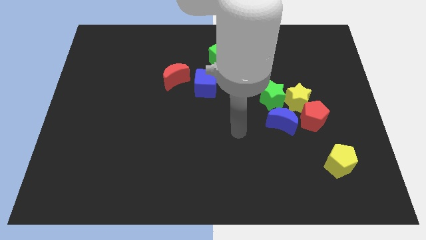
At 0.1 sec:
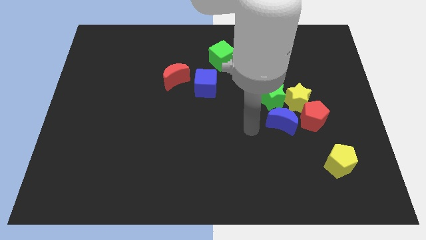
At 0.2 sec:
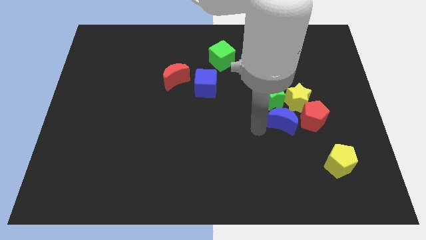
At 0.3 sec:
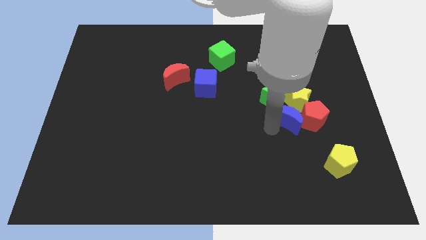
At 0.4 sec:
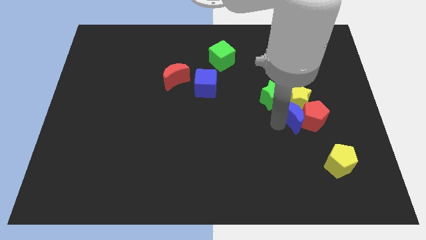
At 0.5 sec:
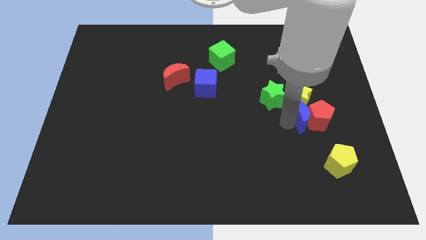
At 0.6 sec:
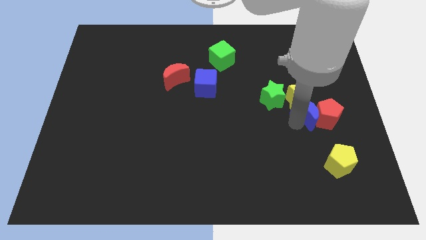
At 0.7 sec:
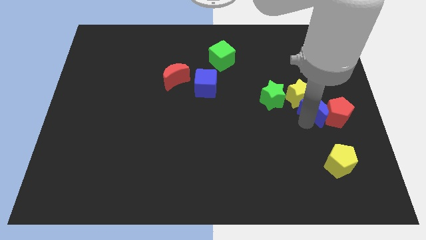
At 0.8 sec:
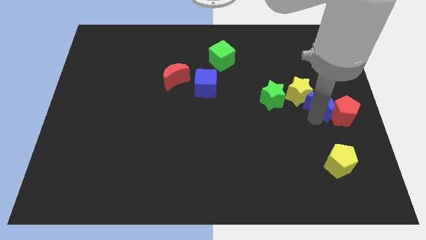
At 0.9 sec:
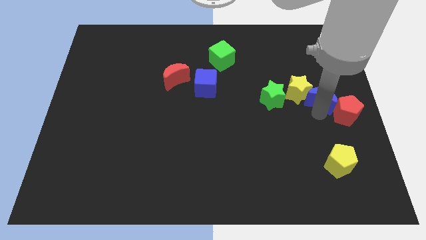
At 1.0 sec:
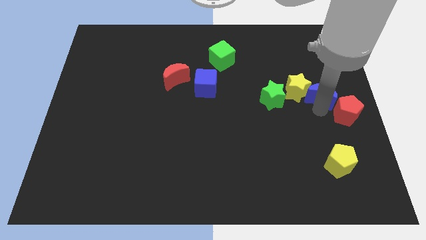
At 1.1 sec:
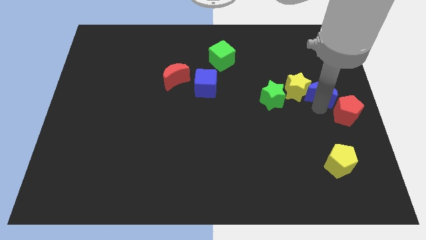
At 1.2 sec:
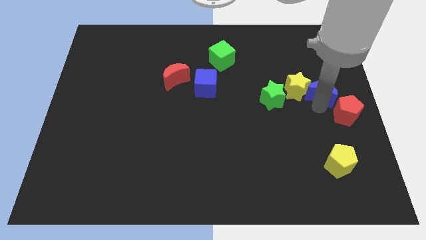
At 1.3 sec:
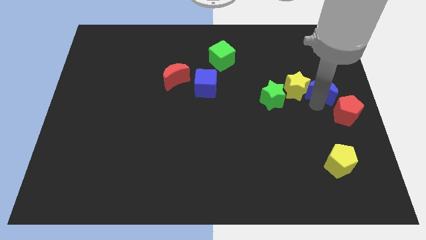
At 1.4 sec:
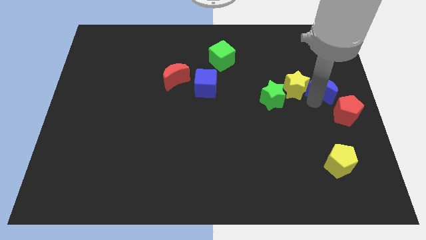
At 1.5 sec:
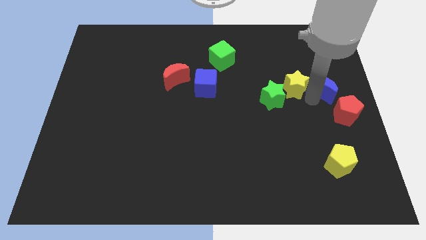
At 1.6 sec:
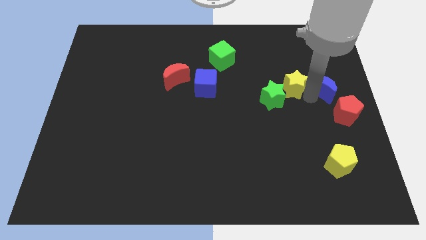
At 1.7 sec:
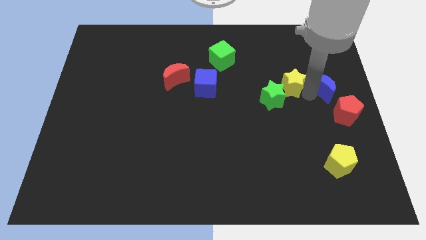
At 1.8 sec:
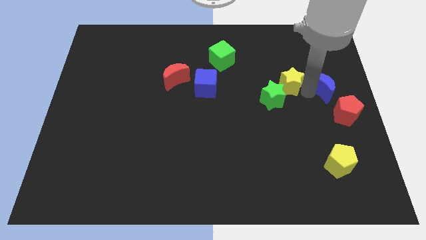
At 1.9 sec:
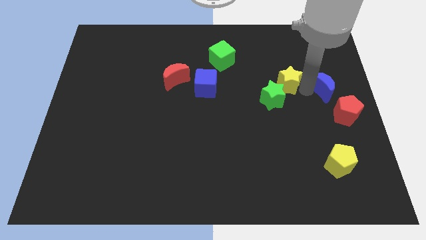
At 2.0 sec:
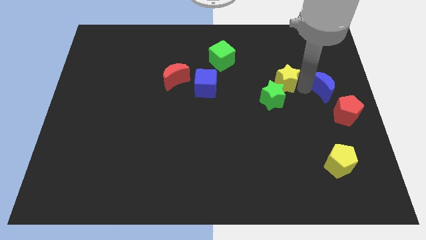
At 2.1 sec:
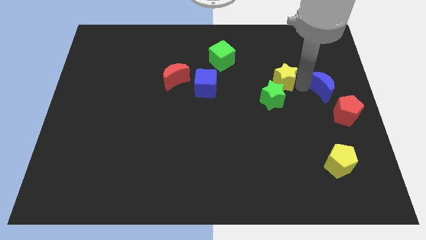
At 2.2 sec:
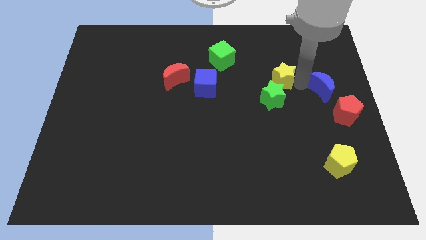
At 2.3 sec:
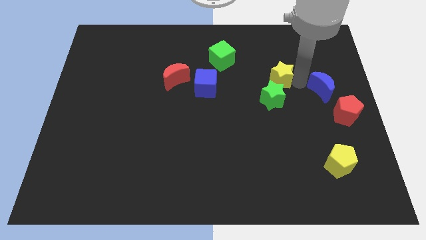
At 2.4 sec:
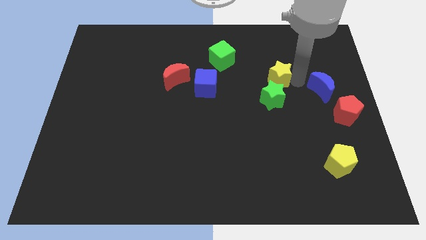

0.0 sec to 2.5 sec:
move the yellow star away from the clump

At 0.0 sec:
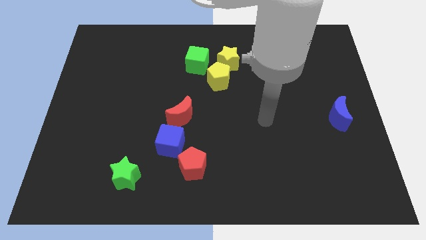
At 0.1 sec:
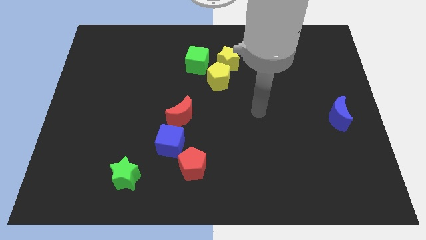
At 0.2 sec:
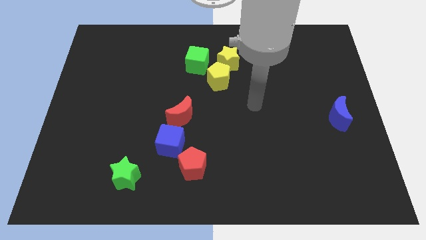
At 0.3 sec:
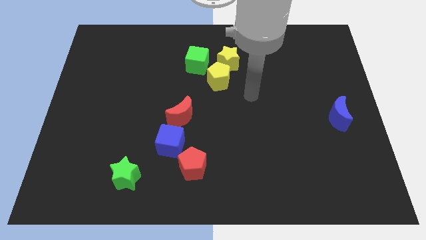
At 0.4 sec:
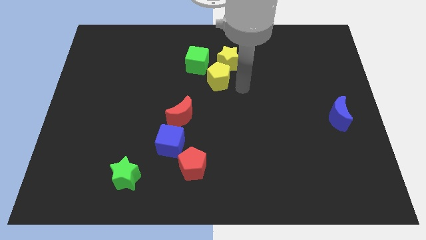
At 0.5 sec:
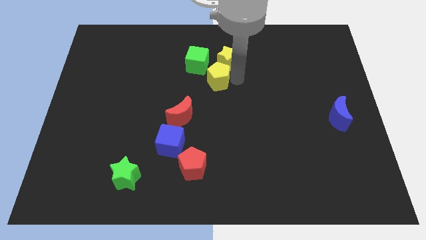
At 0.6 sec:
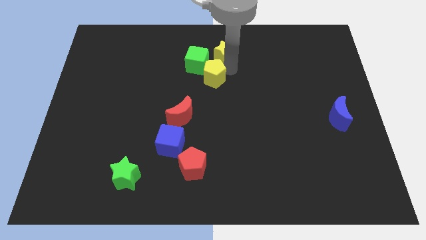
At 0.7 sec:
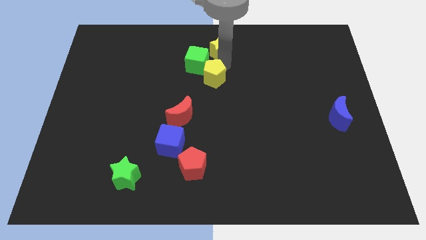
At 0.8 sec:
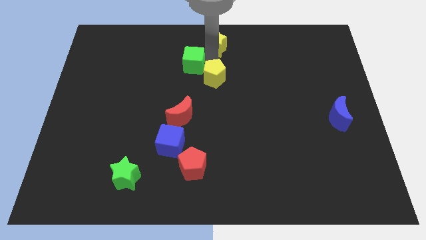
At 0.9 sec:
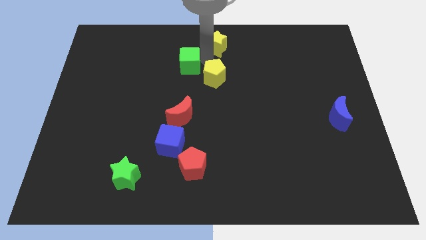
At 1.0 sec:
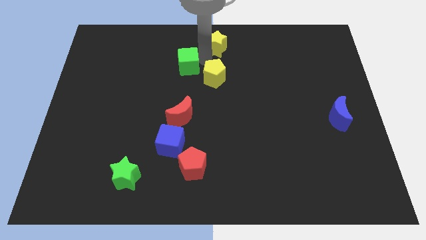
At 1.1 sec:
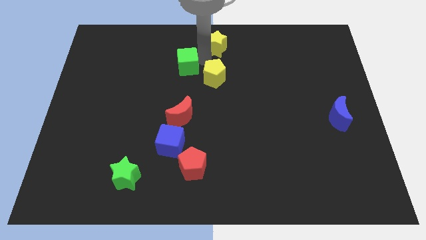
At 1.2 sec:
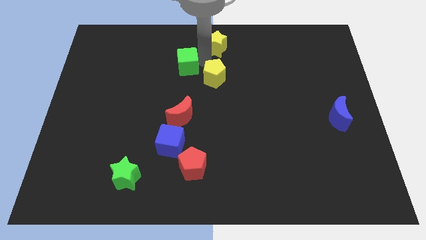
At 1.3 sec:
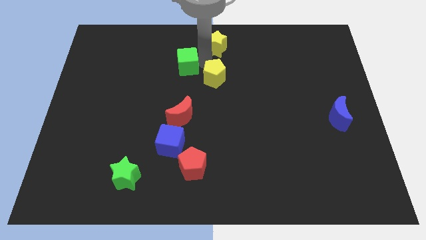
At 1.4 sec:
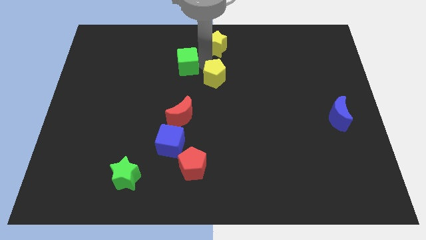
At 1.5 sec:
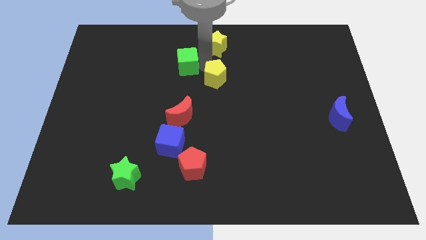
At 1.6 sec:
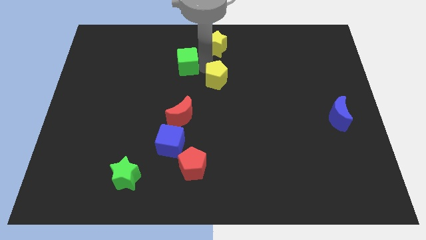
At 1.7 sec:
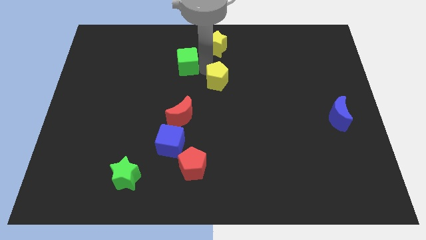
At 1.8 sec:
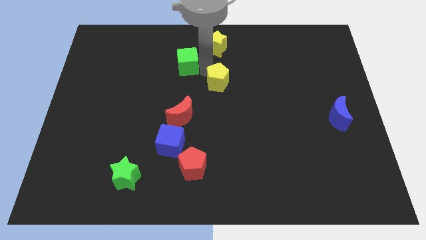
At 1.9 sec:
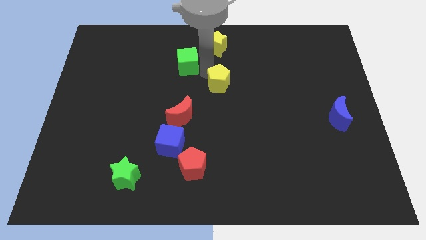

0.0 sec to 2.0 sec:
pull the yellow pentagon apart from the yellow star and green cube

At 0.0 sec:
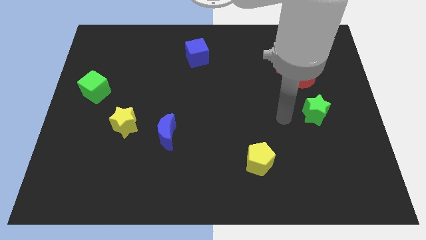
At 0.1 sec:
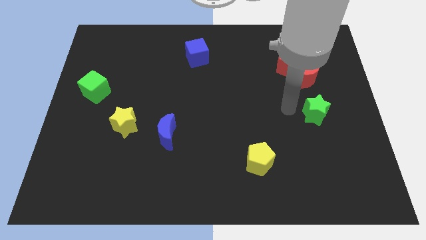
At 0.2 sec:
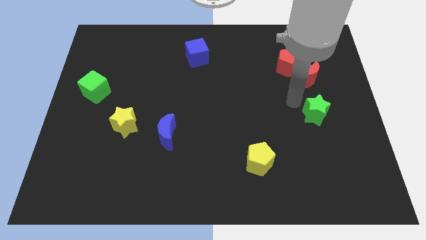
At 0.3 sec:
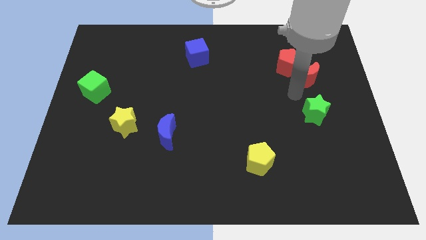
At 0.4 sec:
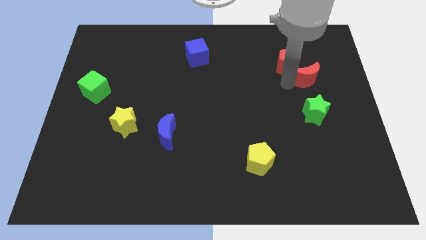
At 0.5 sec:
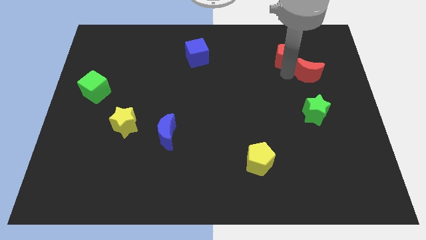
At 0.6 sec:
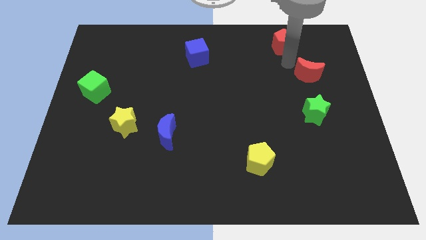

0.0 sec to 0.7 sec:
separate the red moon from the red pentagon

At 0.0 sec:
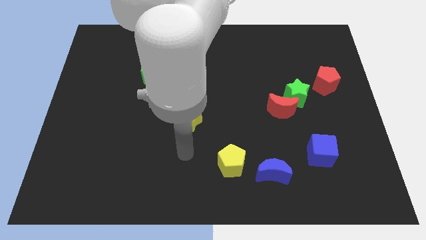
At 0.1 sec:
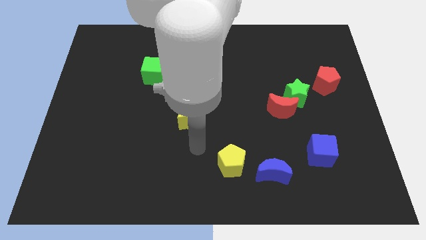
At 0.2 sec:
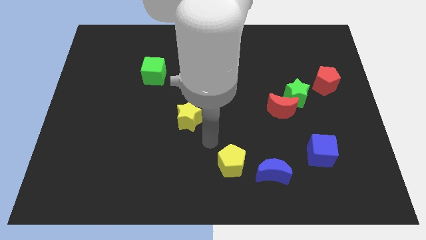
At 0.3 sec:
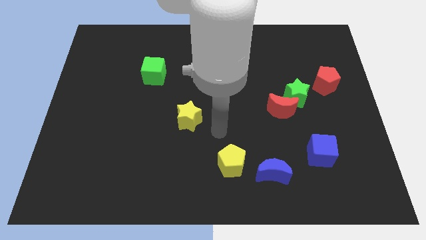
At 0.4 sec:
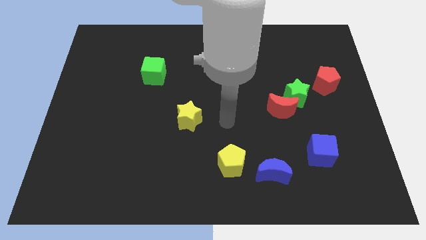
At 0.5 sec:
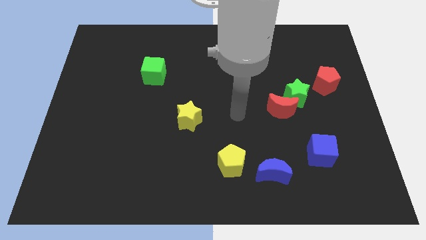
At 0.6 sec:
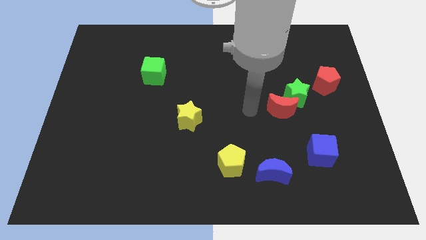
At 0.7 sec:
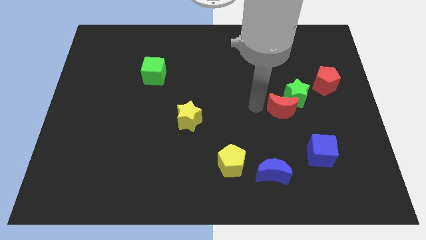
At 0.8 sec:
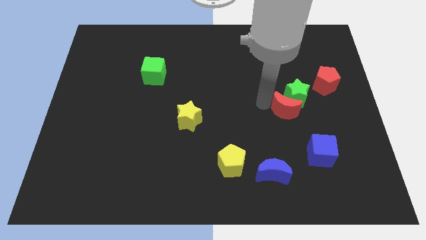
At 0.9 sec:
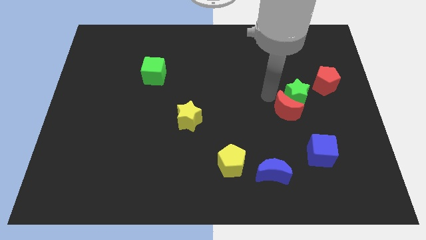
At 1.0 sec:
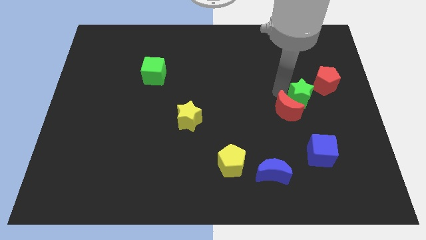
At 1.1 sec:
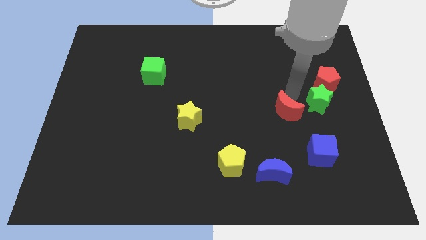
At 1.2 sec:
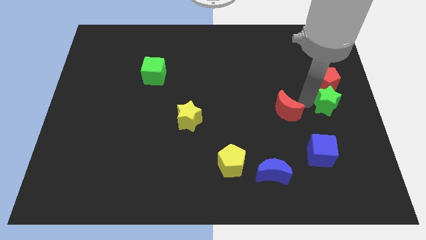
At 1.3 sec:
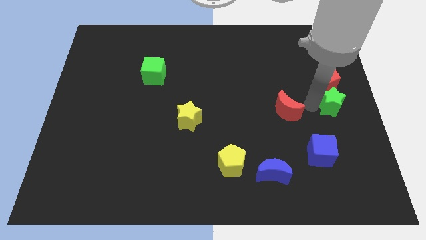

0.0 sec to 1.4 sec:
move the red moon away from the green star

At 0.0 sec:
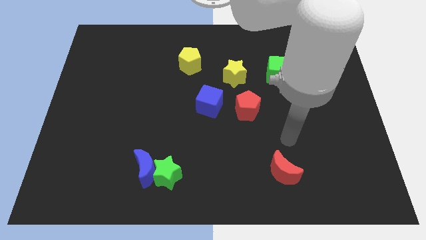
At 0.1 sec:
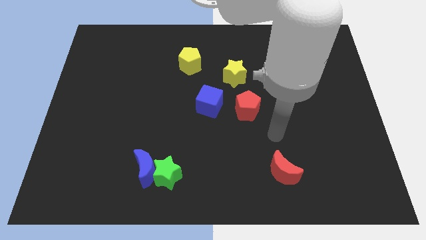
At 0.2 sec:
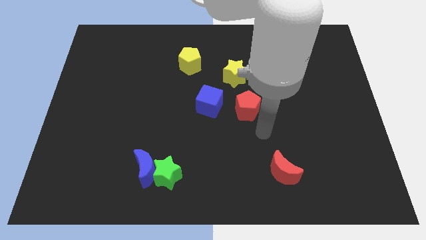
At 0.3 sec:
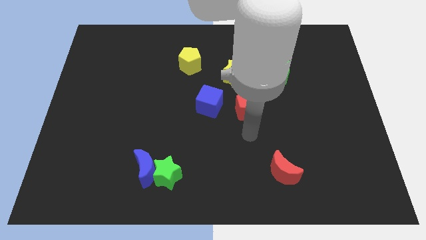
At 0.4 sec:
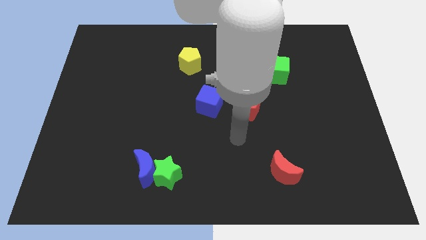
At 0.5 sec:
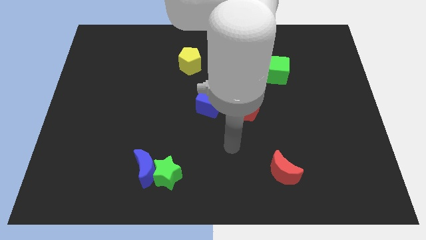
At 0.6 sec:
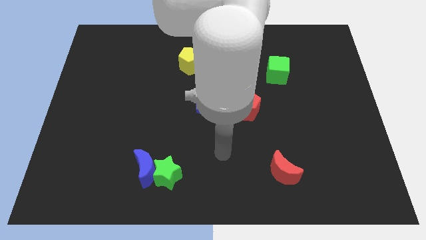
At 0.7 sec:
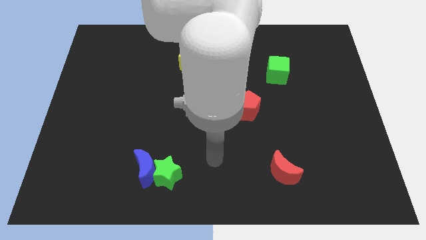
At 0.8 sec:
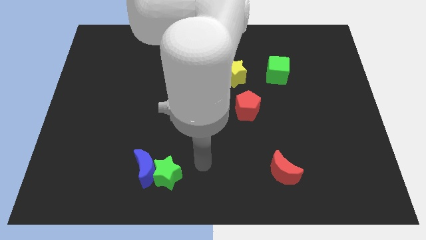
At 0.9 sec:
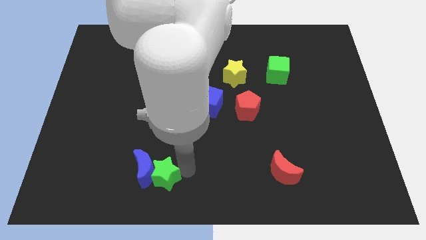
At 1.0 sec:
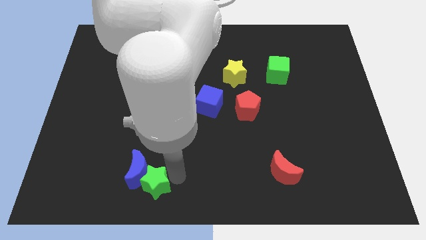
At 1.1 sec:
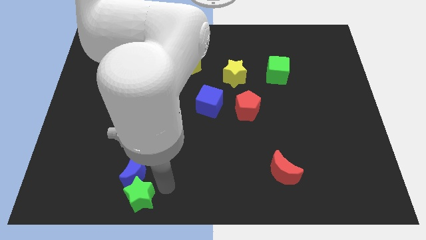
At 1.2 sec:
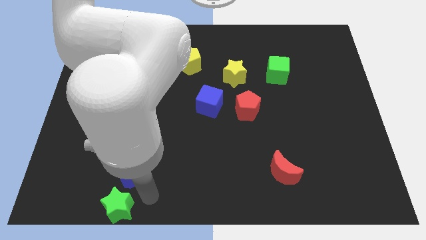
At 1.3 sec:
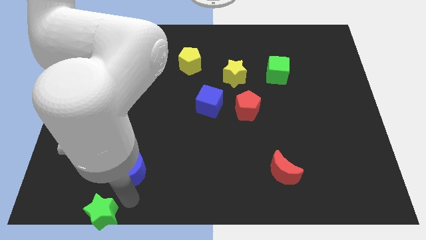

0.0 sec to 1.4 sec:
pull the blue moon apart from the green star

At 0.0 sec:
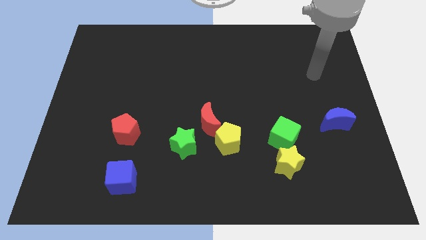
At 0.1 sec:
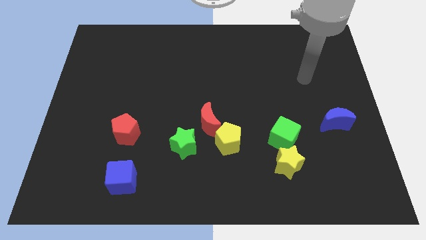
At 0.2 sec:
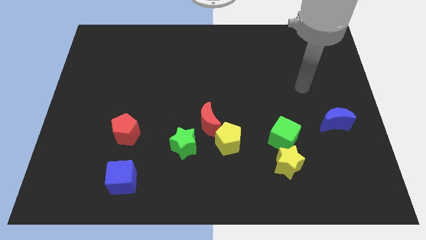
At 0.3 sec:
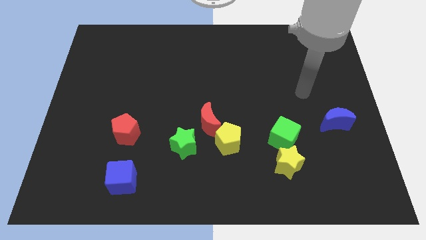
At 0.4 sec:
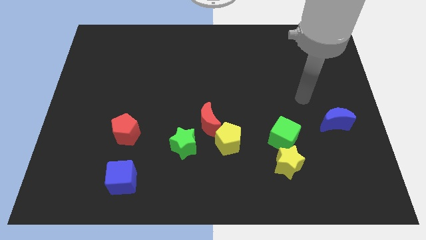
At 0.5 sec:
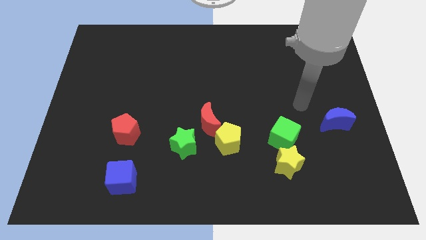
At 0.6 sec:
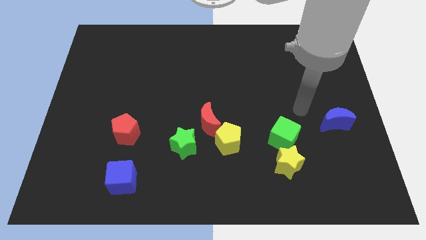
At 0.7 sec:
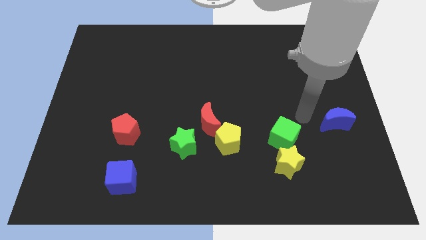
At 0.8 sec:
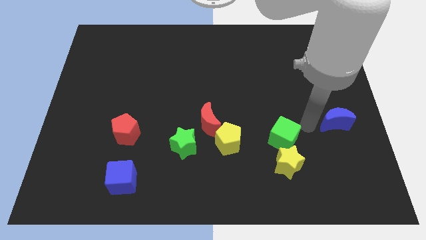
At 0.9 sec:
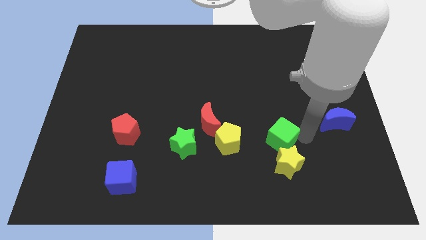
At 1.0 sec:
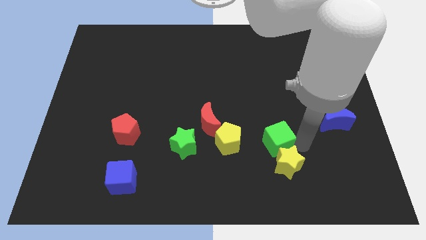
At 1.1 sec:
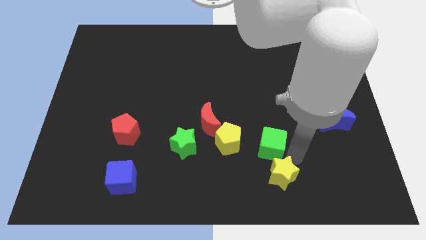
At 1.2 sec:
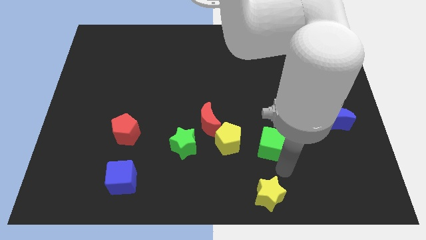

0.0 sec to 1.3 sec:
move the green cube away from the yellow star
